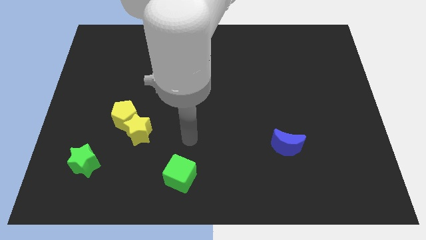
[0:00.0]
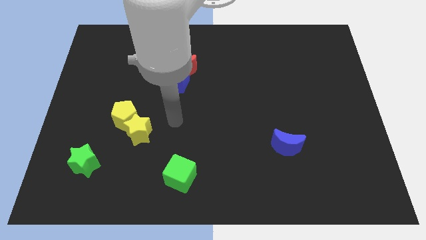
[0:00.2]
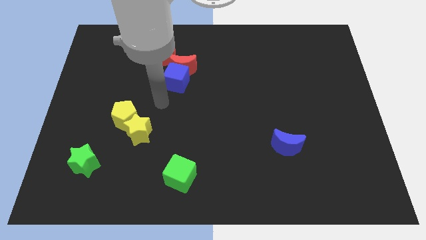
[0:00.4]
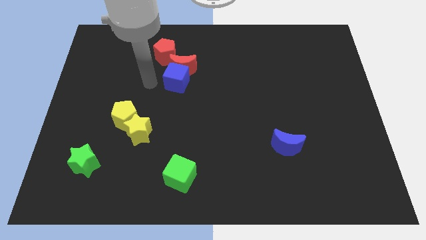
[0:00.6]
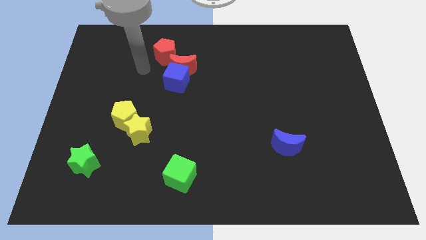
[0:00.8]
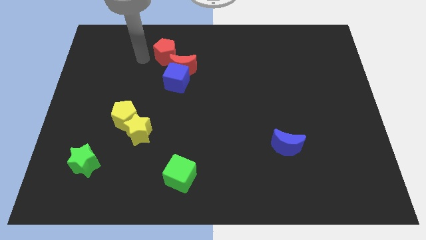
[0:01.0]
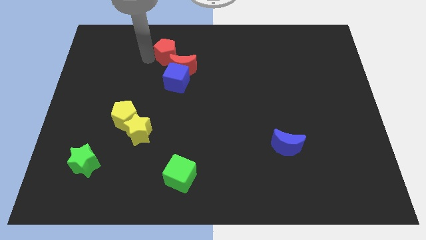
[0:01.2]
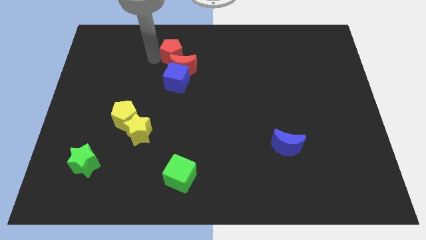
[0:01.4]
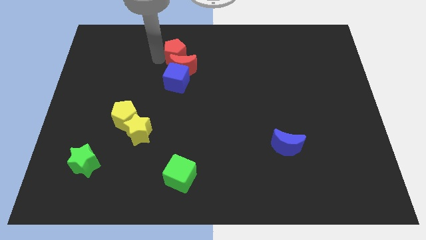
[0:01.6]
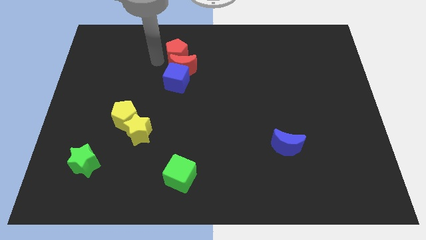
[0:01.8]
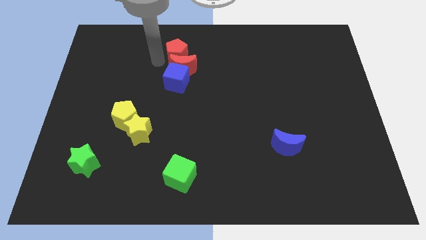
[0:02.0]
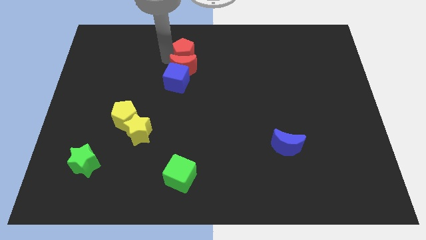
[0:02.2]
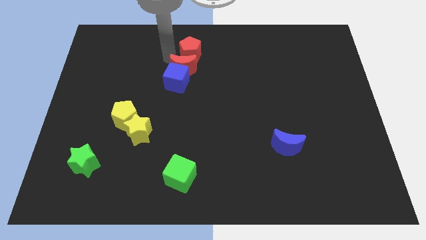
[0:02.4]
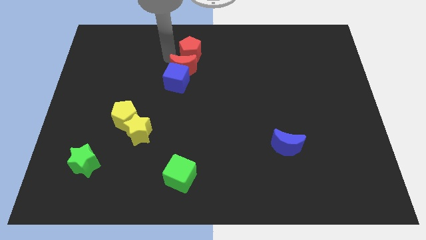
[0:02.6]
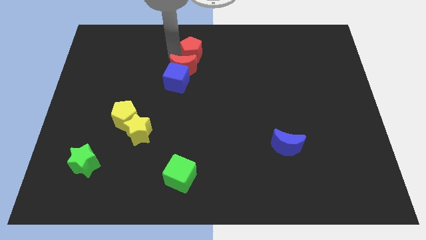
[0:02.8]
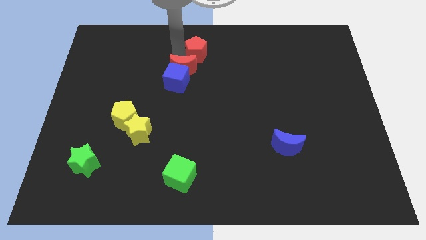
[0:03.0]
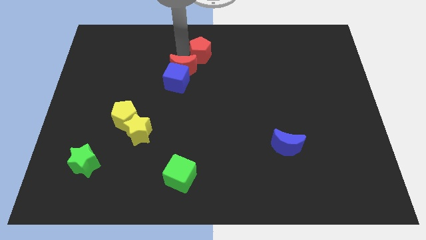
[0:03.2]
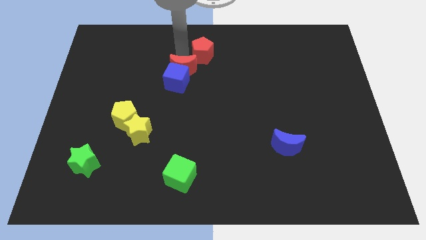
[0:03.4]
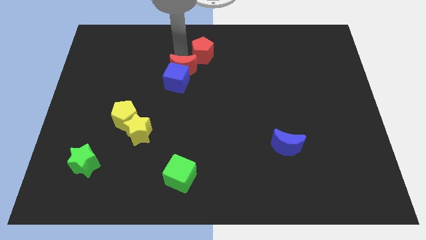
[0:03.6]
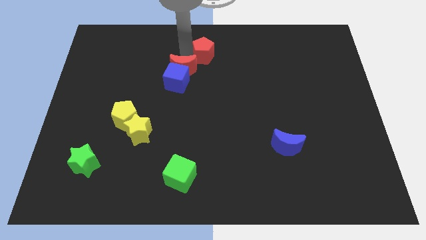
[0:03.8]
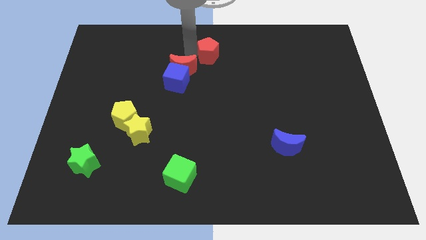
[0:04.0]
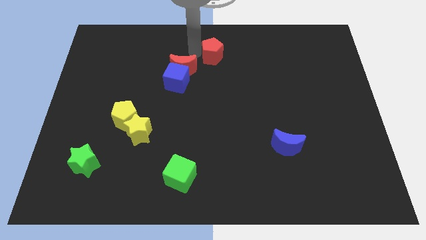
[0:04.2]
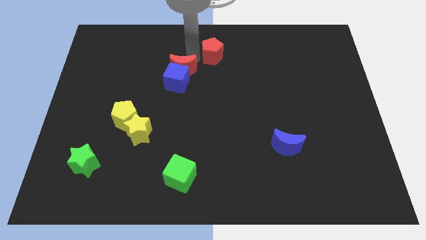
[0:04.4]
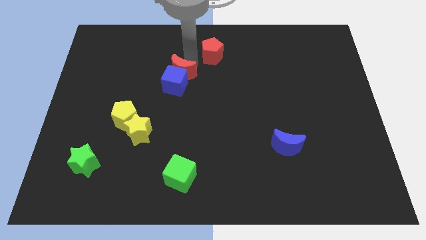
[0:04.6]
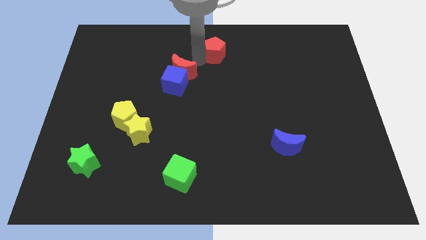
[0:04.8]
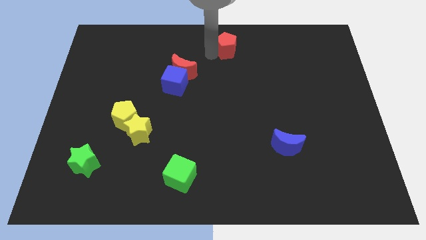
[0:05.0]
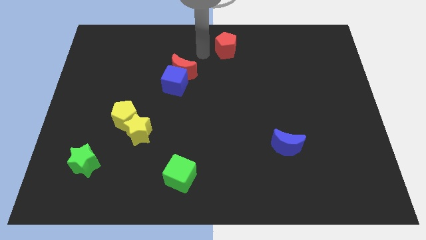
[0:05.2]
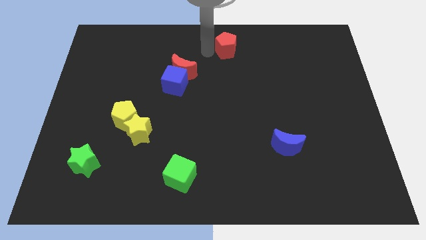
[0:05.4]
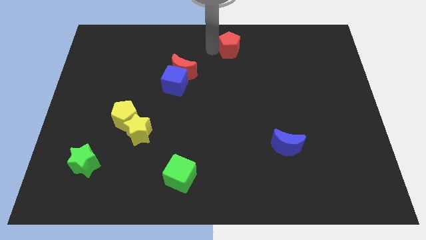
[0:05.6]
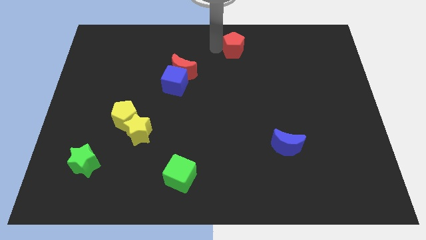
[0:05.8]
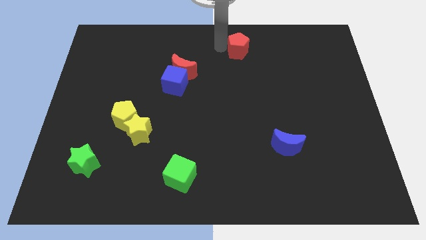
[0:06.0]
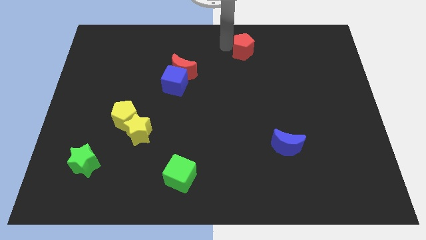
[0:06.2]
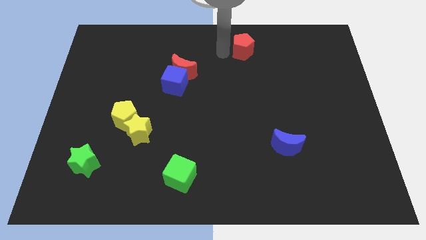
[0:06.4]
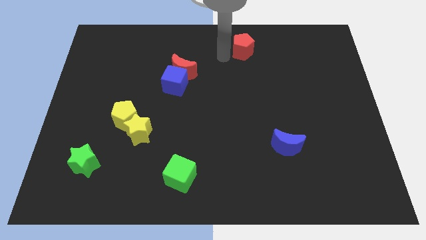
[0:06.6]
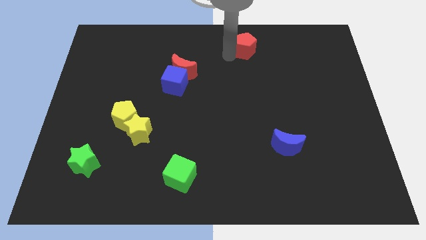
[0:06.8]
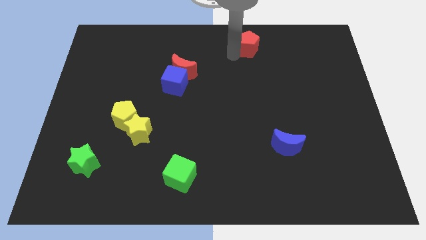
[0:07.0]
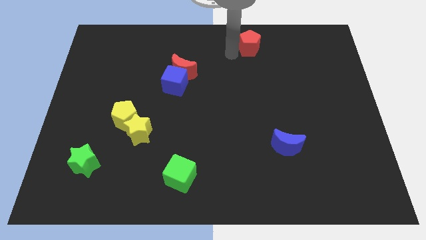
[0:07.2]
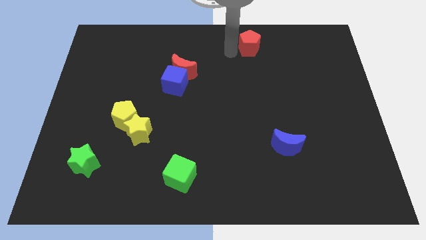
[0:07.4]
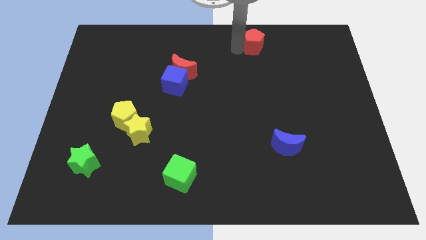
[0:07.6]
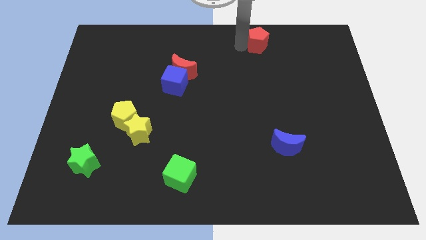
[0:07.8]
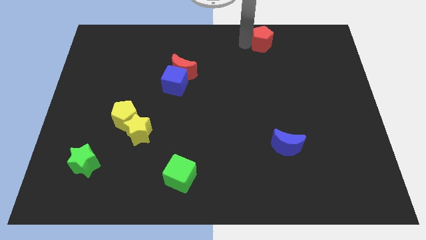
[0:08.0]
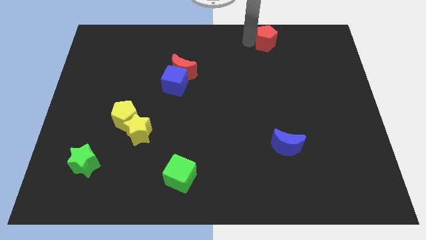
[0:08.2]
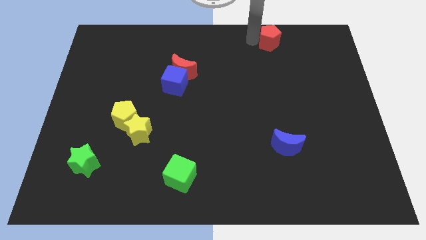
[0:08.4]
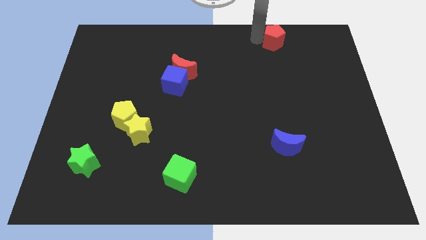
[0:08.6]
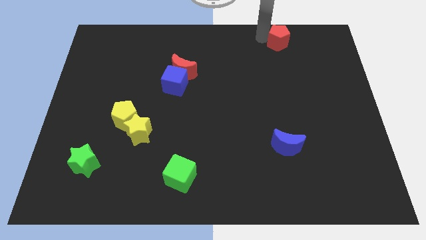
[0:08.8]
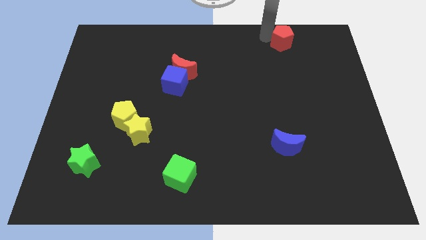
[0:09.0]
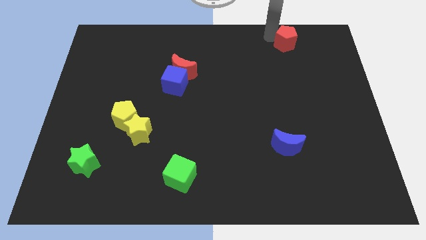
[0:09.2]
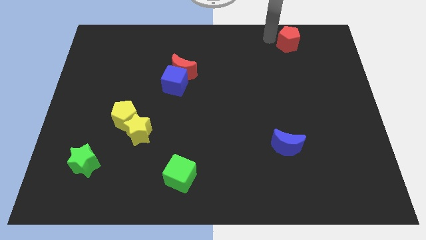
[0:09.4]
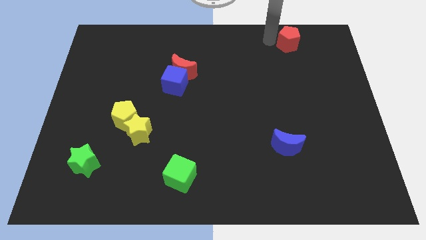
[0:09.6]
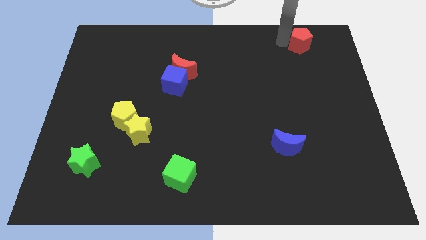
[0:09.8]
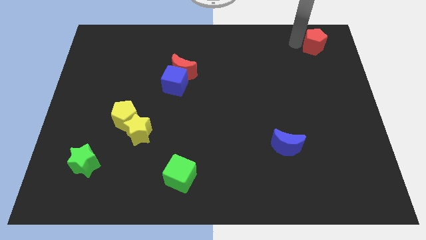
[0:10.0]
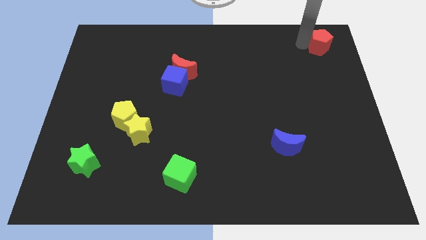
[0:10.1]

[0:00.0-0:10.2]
put the red pentagon to the top right

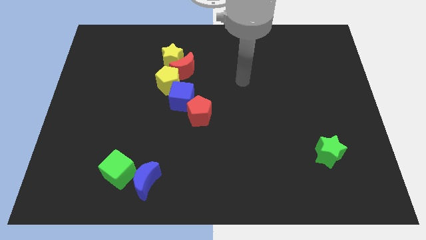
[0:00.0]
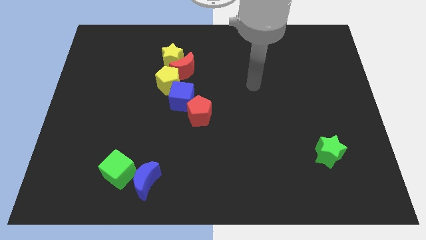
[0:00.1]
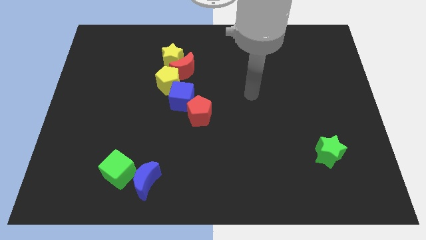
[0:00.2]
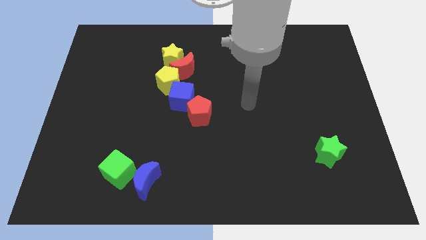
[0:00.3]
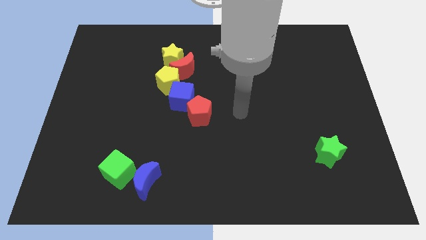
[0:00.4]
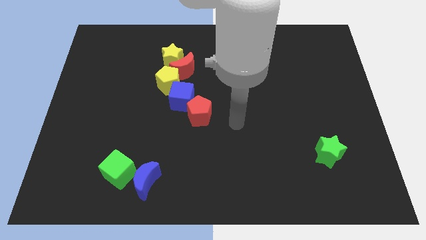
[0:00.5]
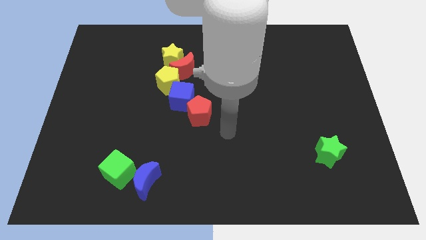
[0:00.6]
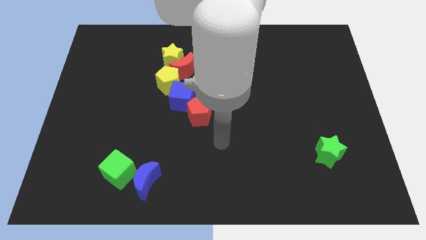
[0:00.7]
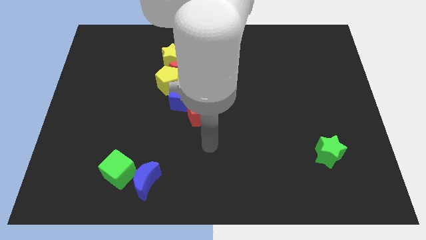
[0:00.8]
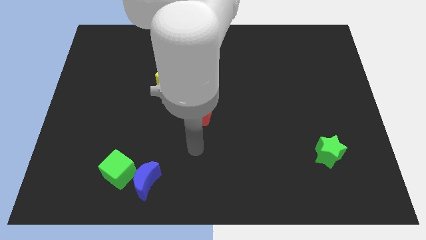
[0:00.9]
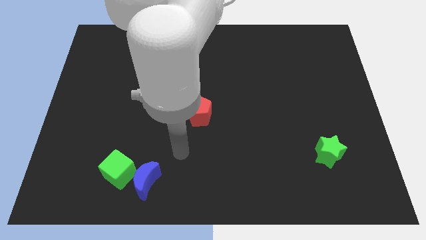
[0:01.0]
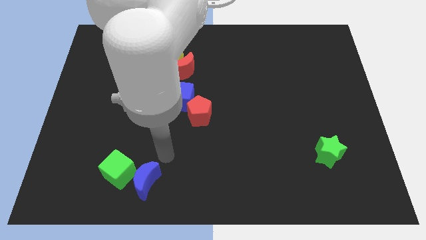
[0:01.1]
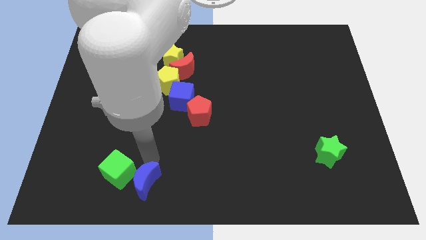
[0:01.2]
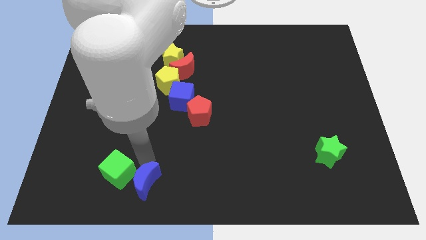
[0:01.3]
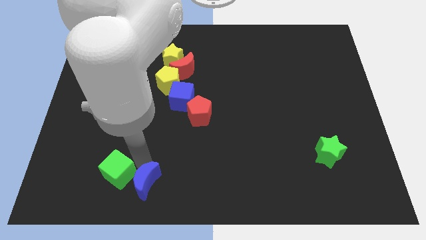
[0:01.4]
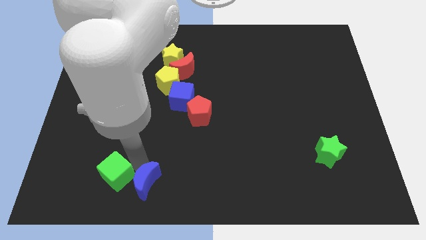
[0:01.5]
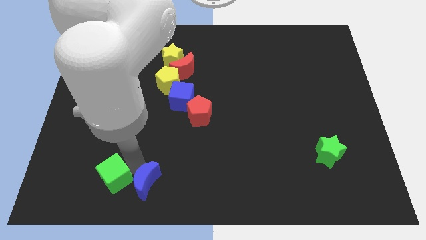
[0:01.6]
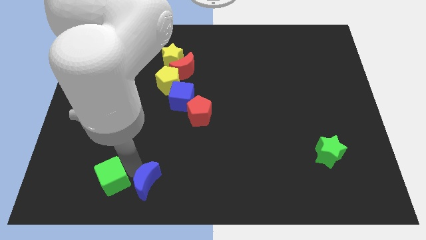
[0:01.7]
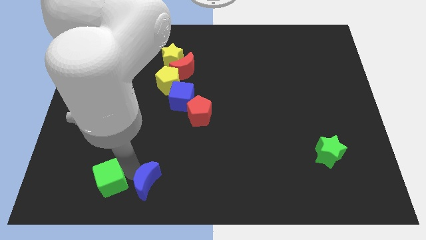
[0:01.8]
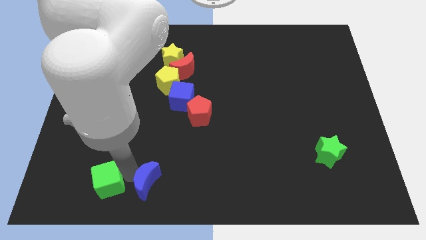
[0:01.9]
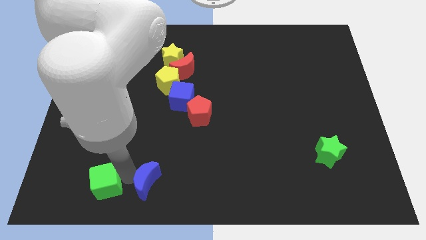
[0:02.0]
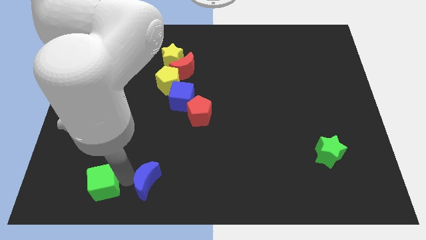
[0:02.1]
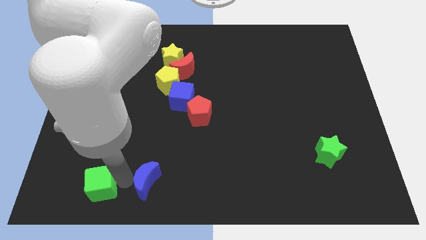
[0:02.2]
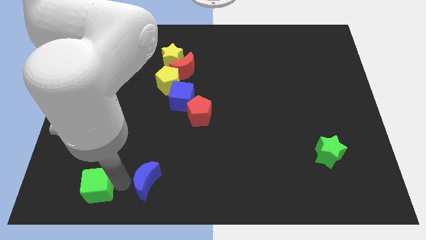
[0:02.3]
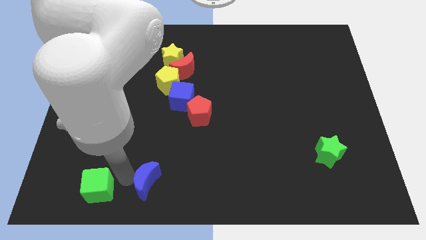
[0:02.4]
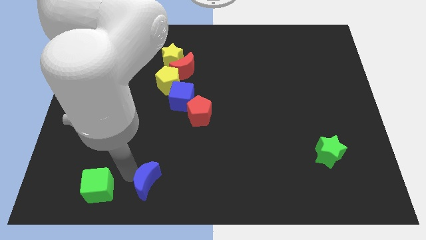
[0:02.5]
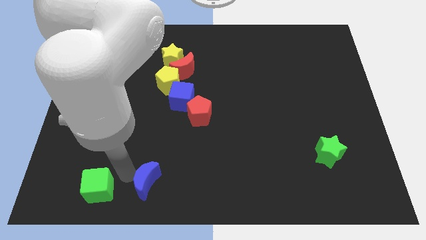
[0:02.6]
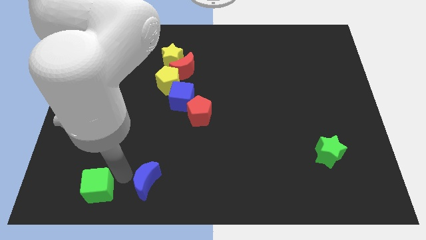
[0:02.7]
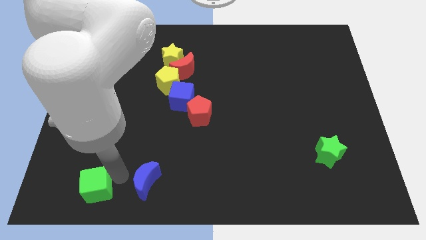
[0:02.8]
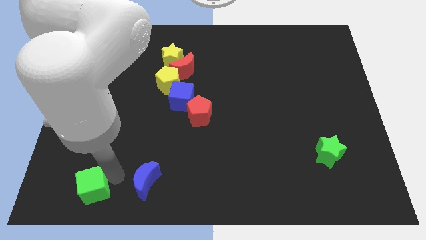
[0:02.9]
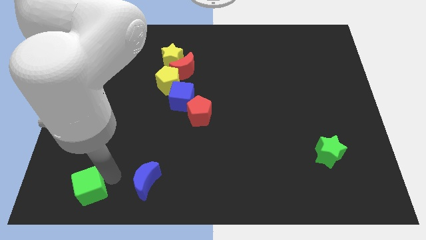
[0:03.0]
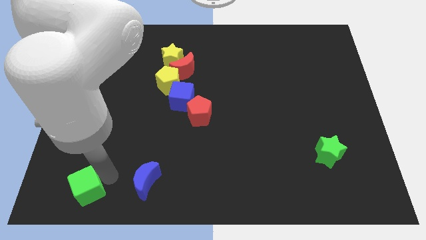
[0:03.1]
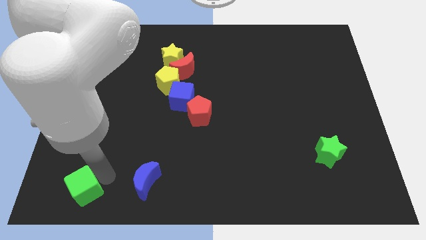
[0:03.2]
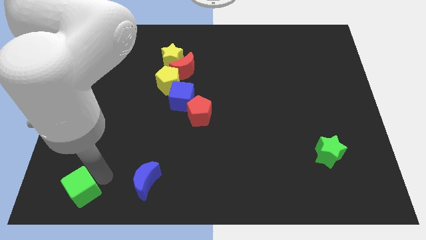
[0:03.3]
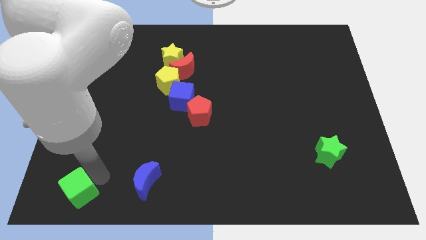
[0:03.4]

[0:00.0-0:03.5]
put the green cube to the bottom left corner
